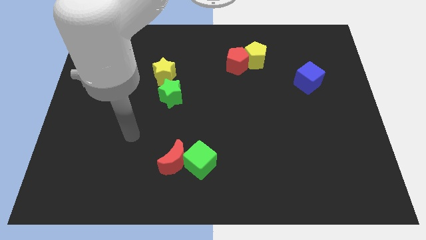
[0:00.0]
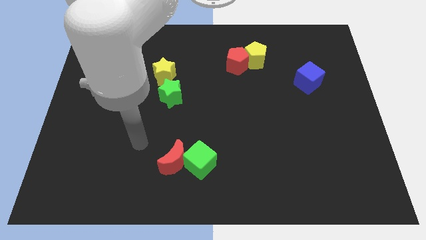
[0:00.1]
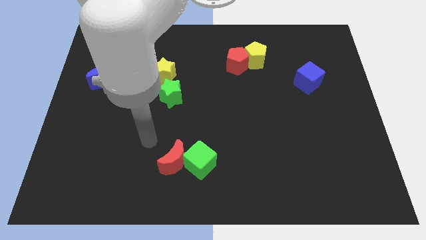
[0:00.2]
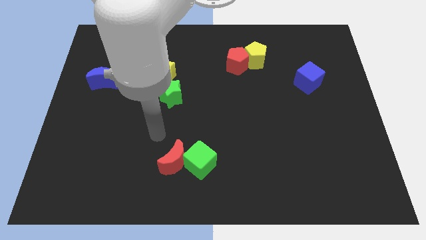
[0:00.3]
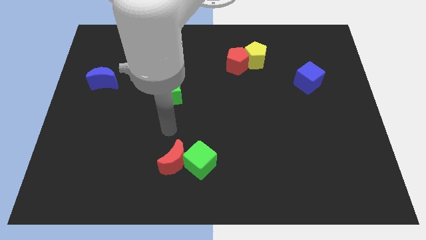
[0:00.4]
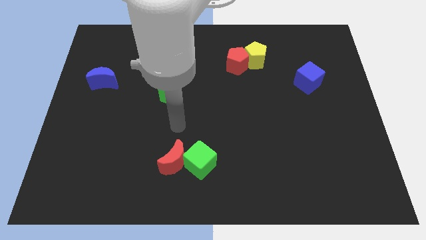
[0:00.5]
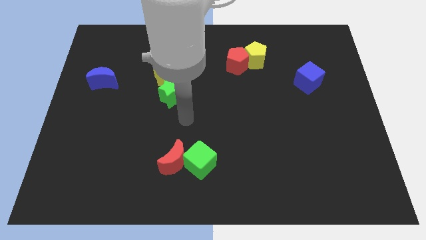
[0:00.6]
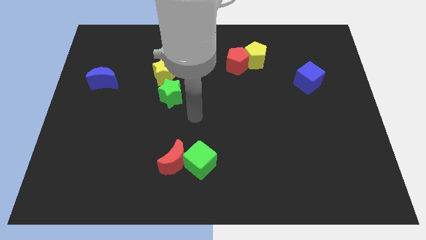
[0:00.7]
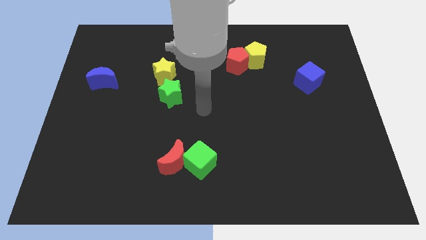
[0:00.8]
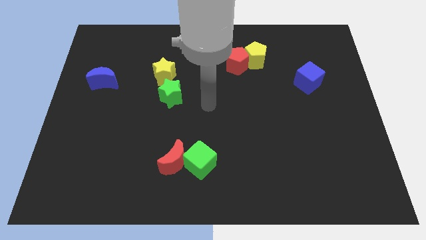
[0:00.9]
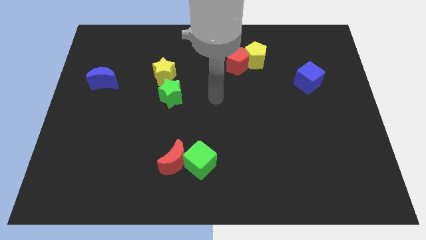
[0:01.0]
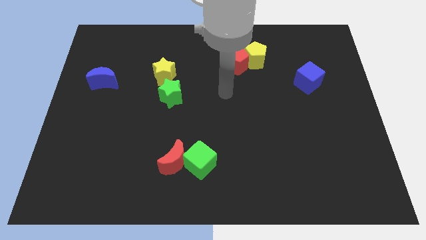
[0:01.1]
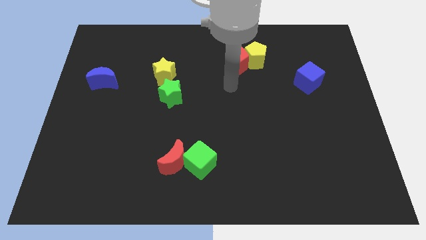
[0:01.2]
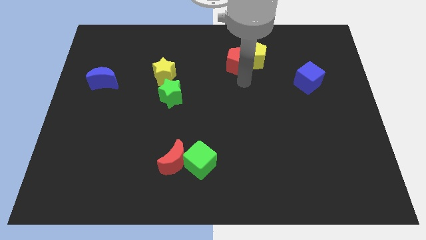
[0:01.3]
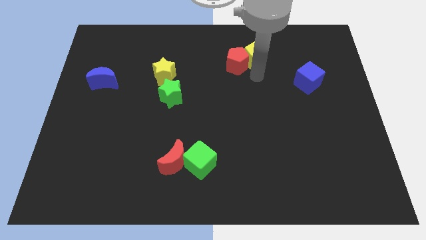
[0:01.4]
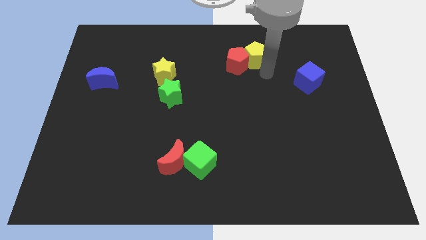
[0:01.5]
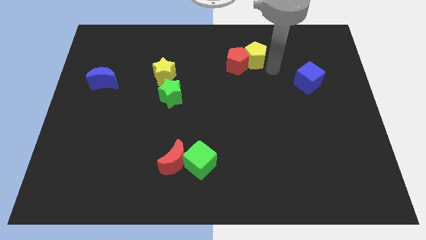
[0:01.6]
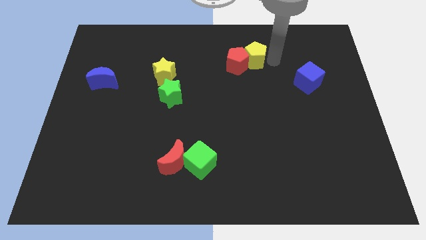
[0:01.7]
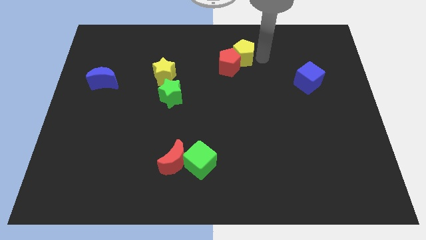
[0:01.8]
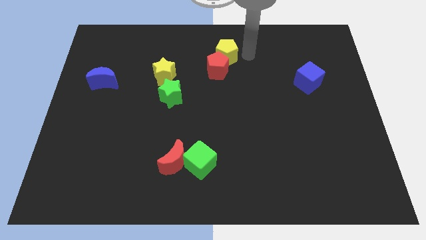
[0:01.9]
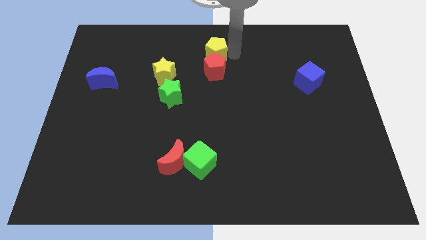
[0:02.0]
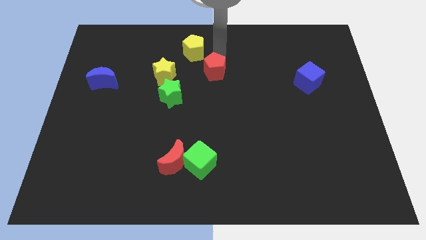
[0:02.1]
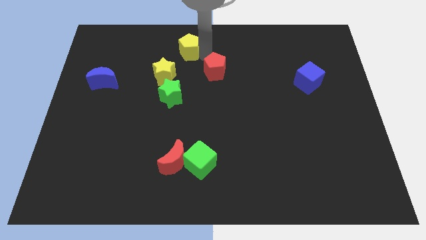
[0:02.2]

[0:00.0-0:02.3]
separate the red pentagon from the yellow pentagon

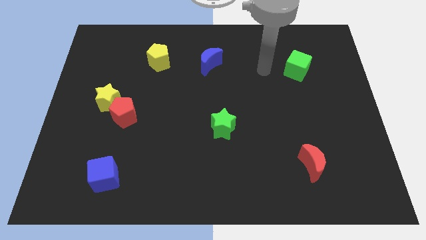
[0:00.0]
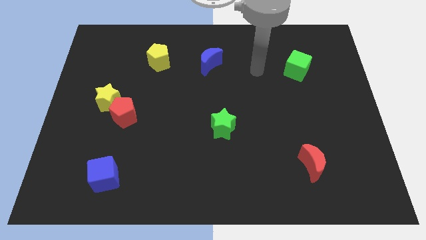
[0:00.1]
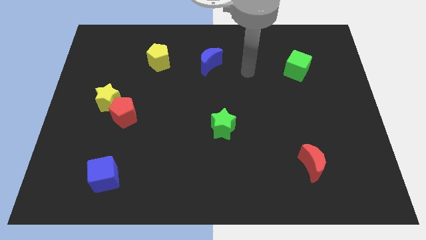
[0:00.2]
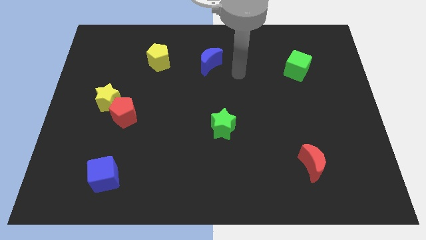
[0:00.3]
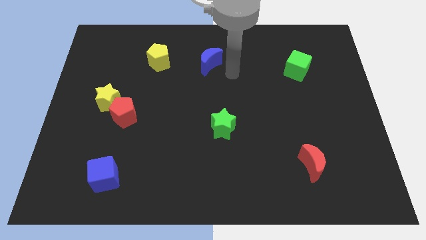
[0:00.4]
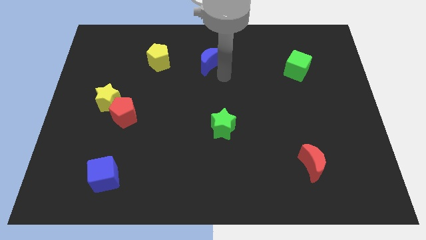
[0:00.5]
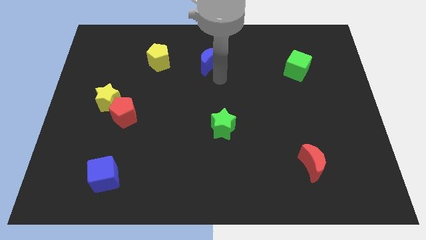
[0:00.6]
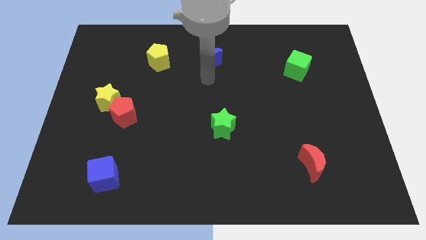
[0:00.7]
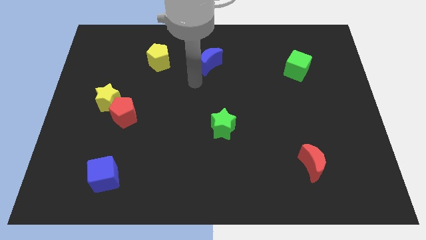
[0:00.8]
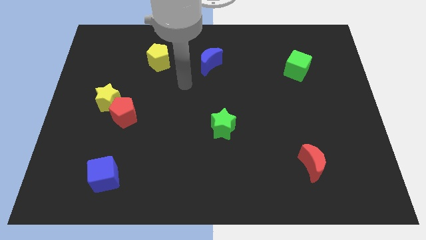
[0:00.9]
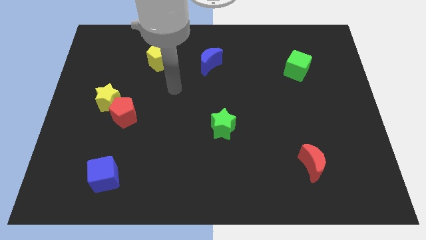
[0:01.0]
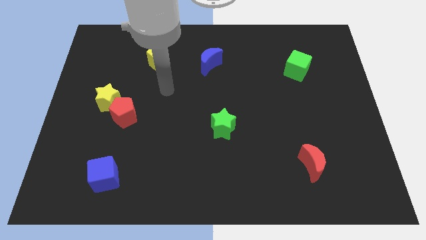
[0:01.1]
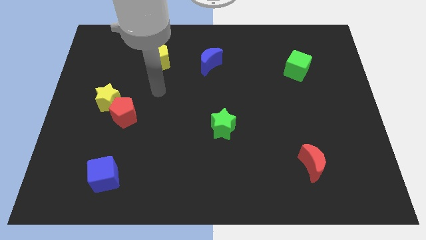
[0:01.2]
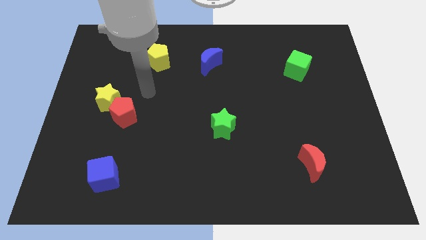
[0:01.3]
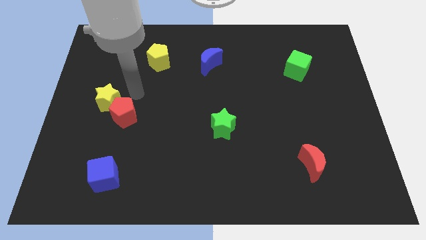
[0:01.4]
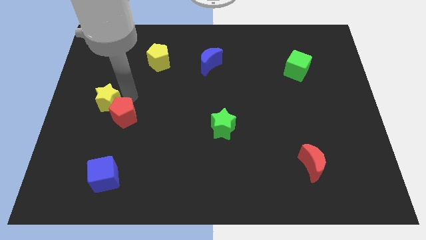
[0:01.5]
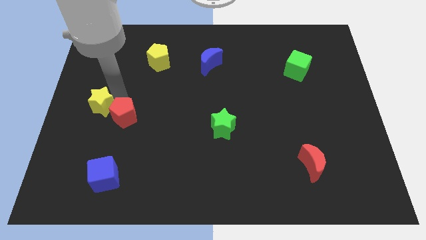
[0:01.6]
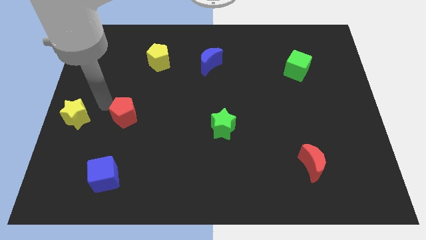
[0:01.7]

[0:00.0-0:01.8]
separate the red pentagon from the yellow star

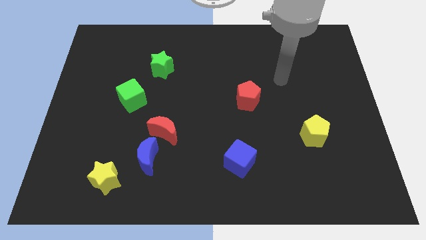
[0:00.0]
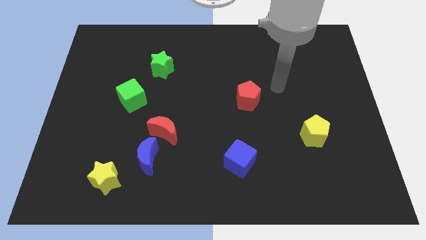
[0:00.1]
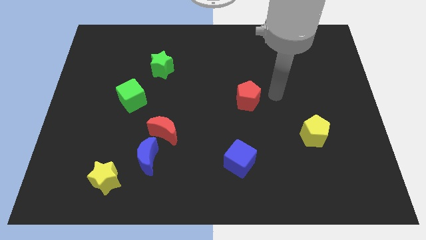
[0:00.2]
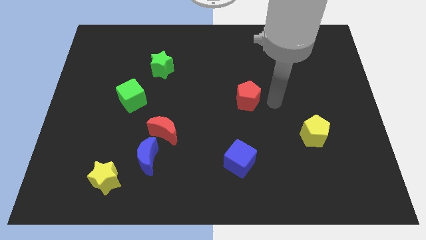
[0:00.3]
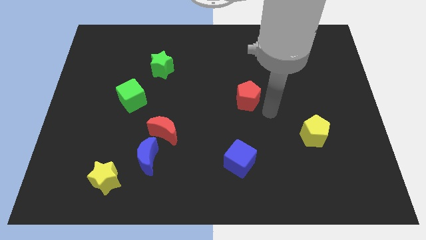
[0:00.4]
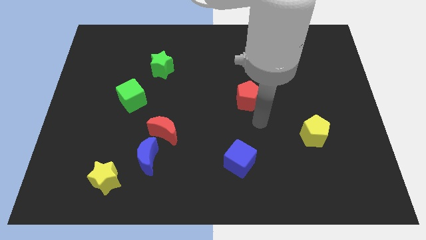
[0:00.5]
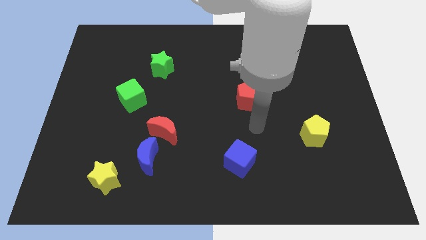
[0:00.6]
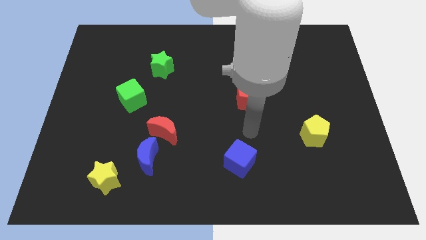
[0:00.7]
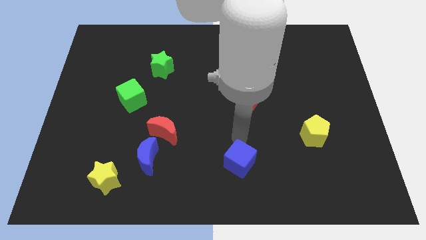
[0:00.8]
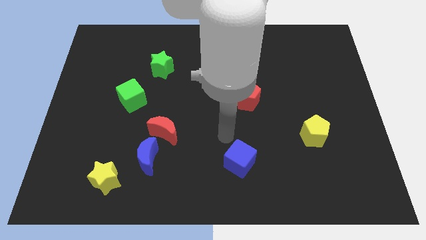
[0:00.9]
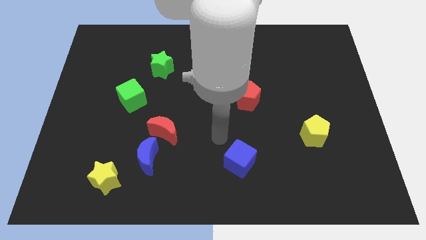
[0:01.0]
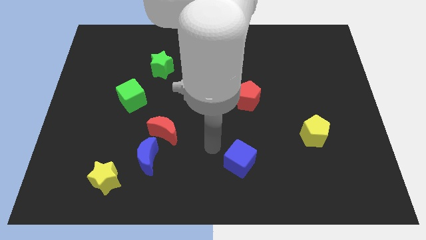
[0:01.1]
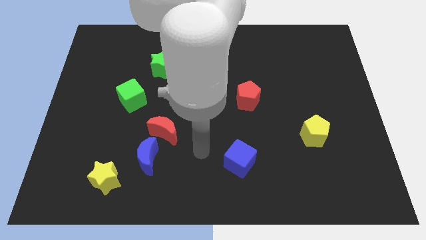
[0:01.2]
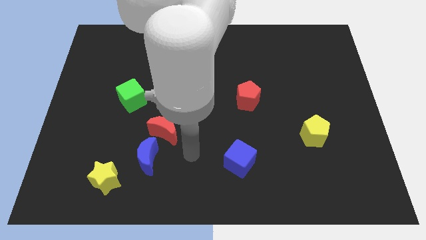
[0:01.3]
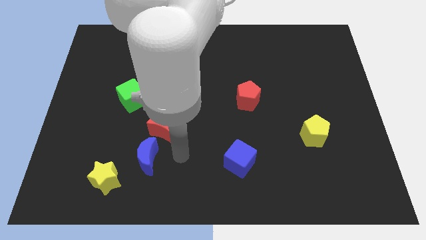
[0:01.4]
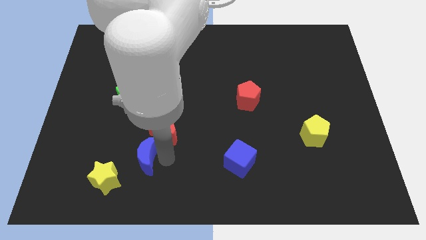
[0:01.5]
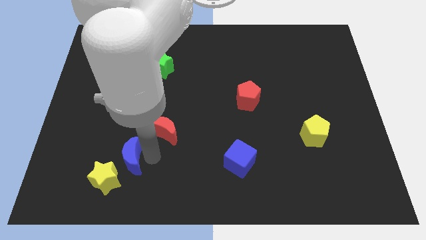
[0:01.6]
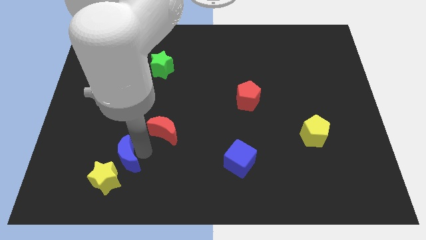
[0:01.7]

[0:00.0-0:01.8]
pull the red moon apart from the blue moon

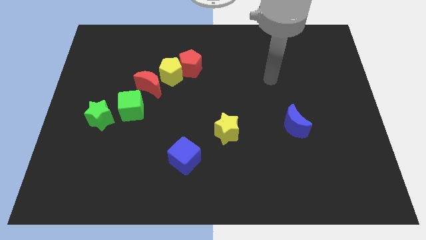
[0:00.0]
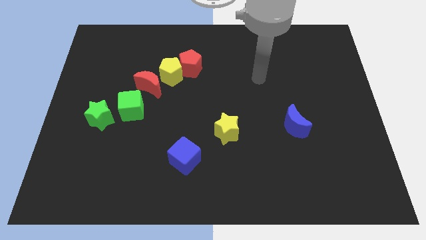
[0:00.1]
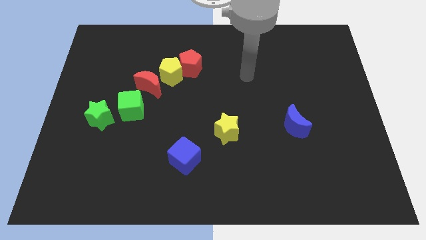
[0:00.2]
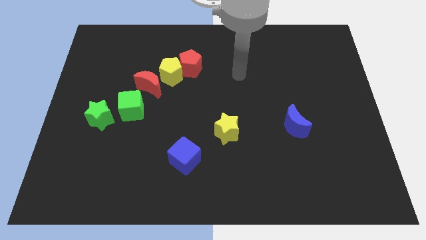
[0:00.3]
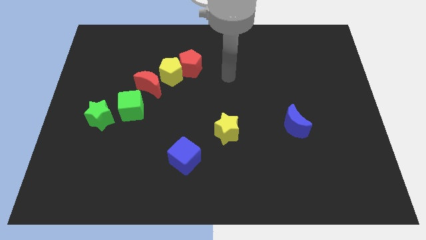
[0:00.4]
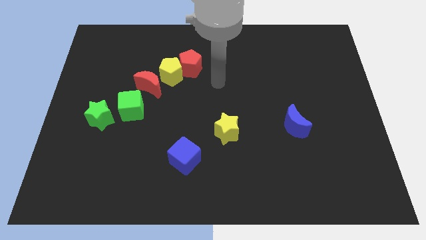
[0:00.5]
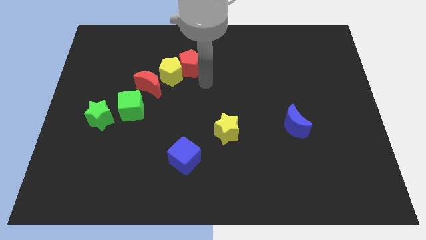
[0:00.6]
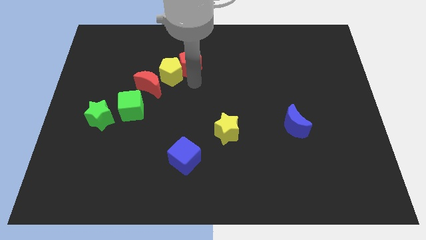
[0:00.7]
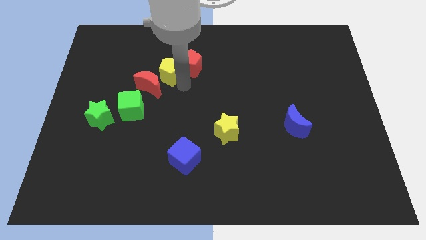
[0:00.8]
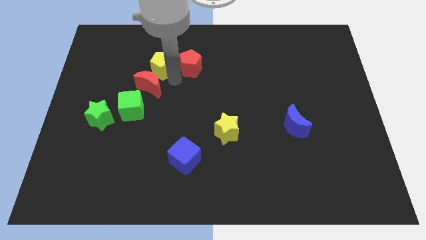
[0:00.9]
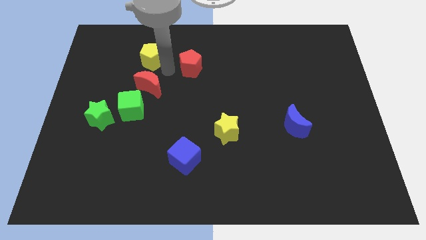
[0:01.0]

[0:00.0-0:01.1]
move the red pentagon away from the yellow pentagon

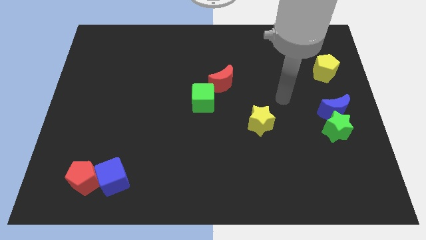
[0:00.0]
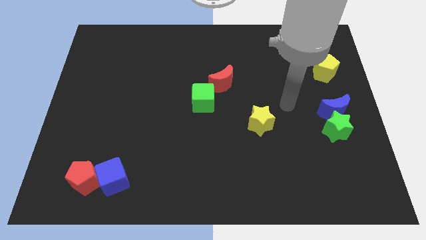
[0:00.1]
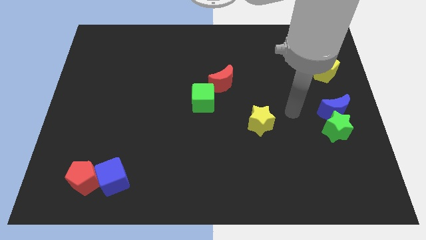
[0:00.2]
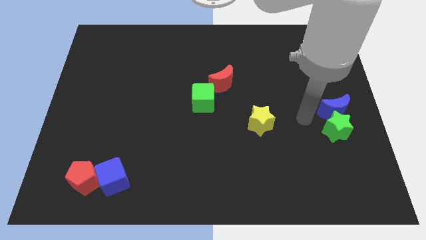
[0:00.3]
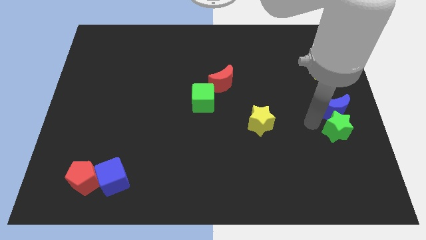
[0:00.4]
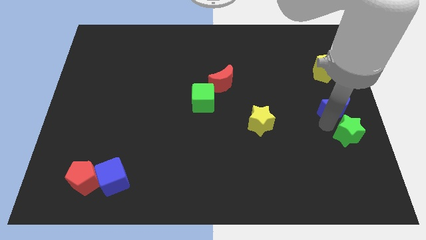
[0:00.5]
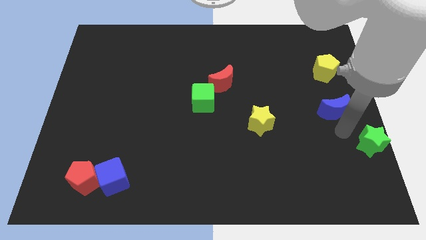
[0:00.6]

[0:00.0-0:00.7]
pull the blue moon apart from the green star

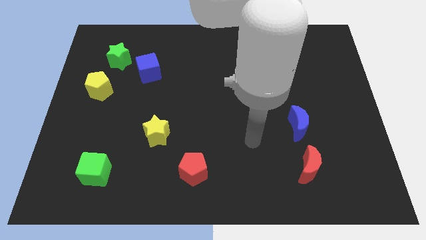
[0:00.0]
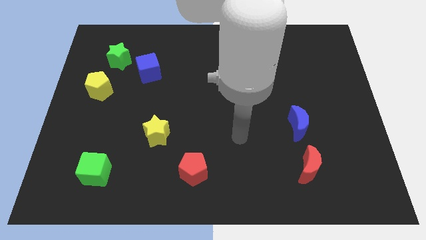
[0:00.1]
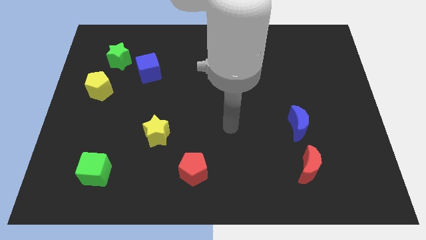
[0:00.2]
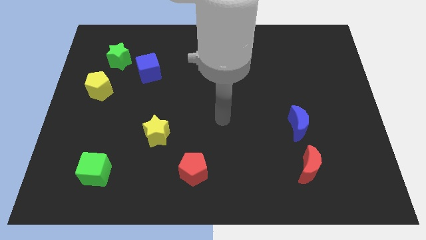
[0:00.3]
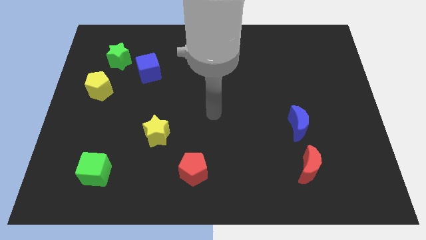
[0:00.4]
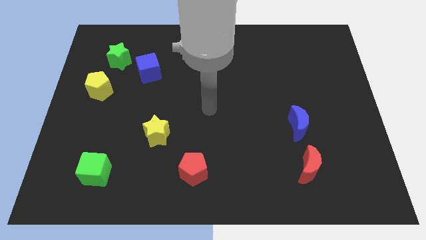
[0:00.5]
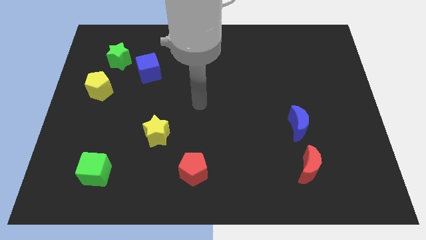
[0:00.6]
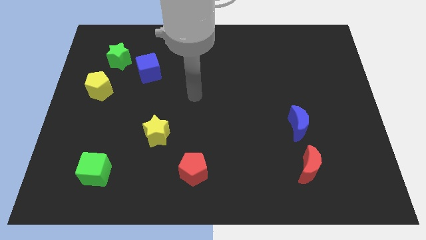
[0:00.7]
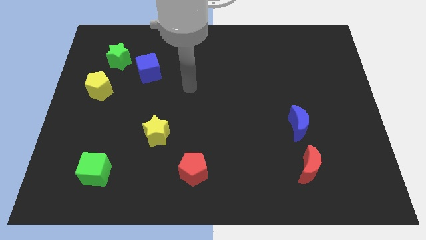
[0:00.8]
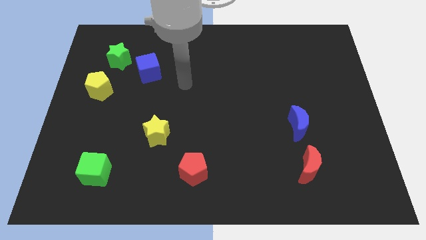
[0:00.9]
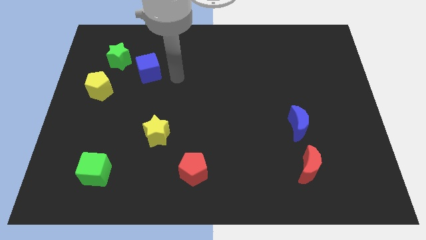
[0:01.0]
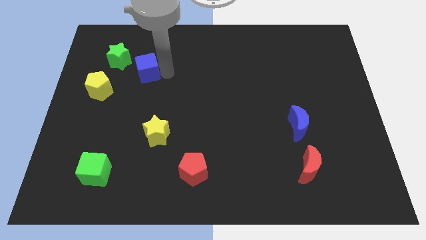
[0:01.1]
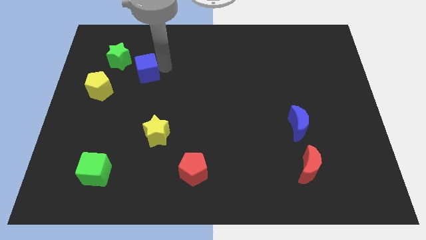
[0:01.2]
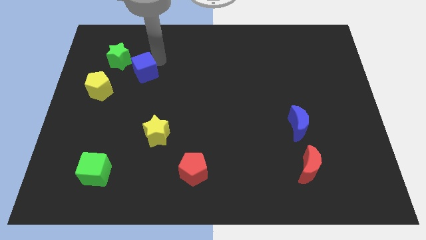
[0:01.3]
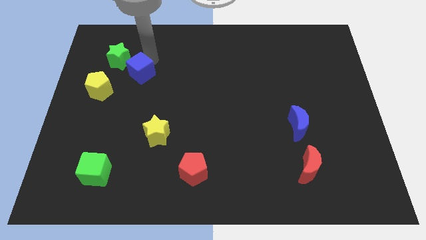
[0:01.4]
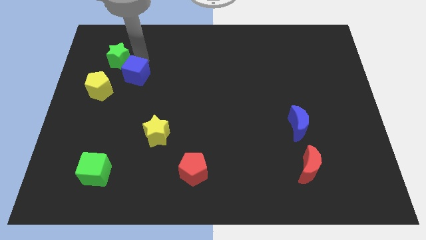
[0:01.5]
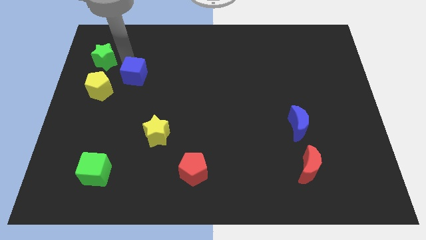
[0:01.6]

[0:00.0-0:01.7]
pull the blue cube apart from the green star
